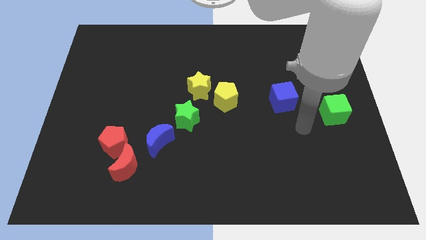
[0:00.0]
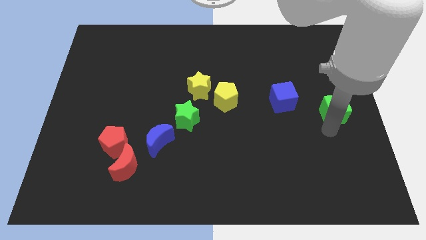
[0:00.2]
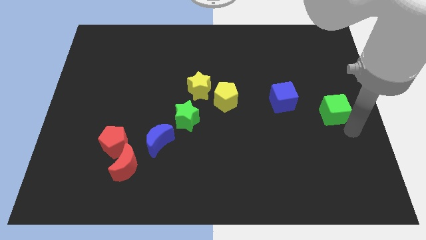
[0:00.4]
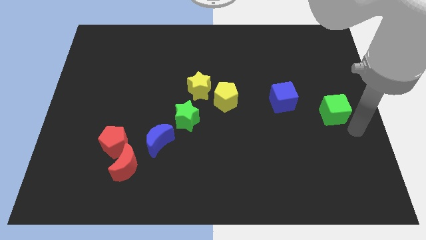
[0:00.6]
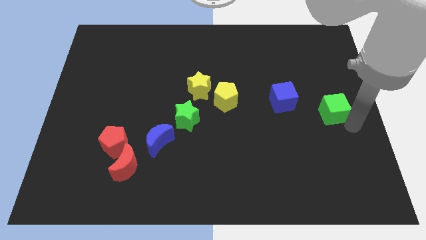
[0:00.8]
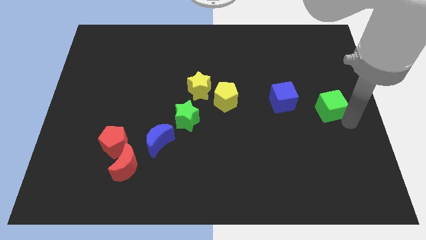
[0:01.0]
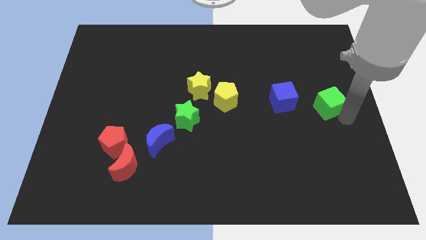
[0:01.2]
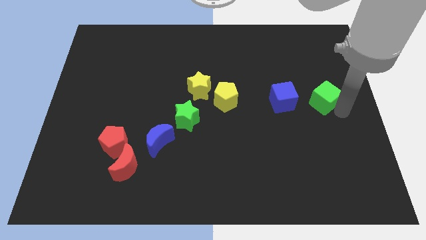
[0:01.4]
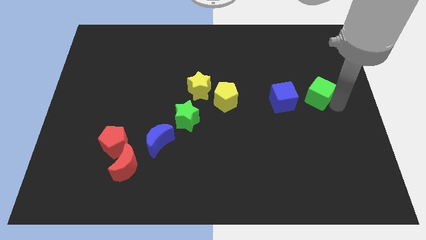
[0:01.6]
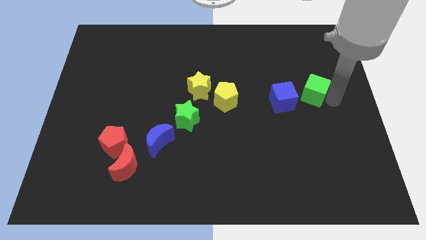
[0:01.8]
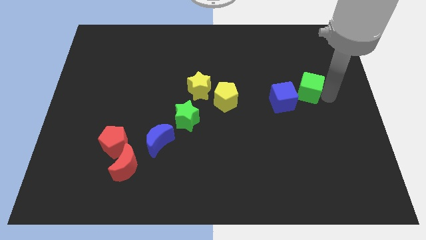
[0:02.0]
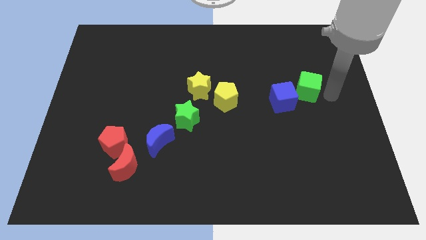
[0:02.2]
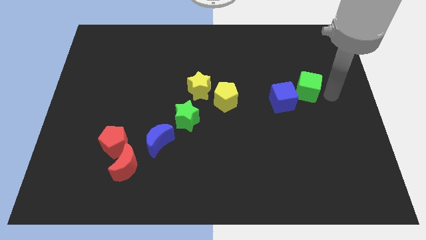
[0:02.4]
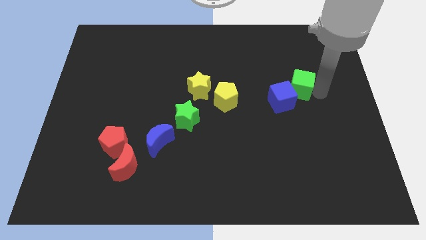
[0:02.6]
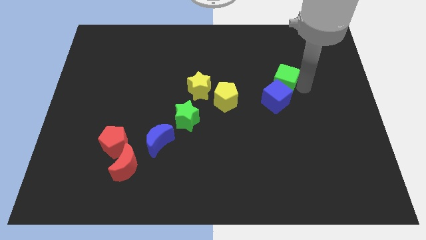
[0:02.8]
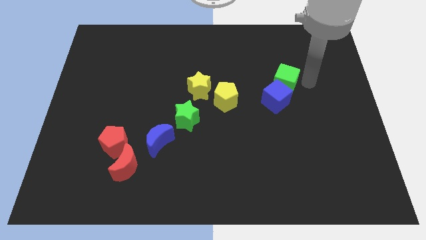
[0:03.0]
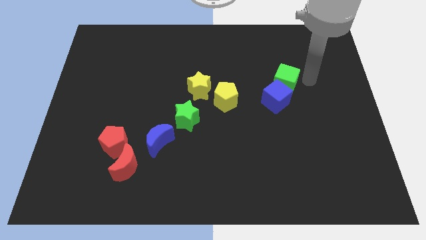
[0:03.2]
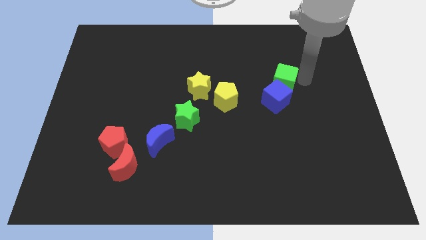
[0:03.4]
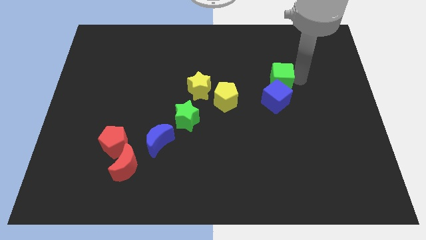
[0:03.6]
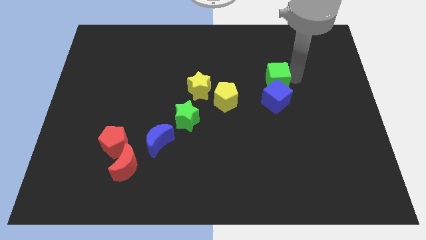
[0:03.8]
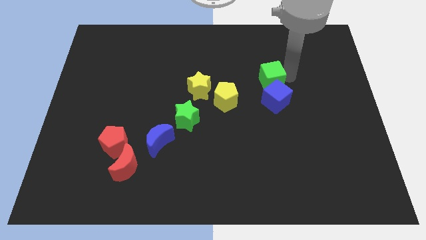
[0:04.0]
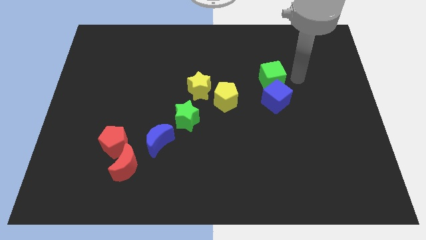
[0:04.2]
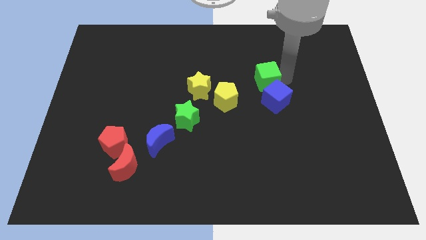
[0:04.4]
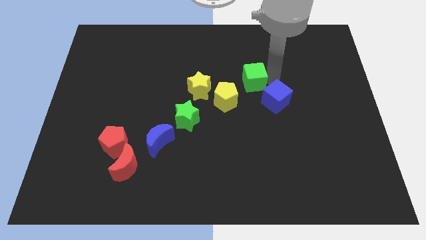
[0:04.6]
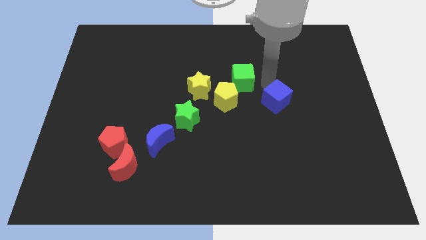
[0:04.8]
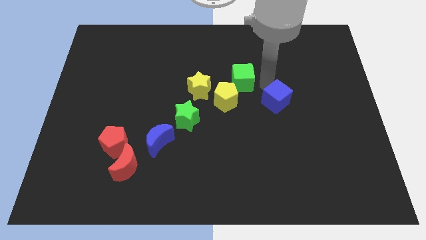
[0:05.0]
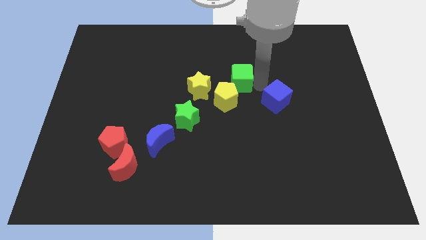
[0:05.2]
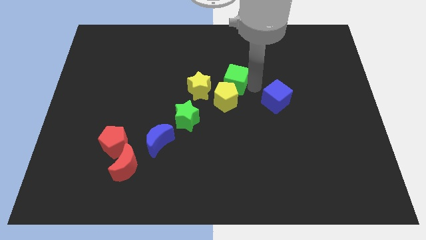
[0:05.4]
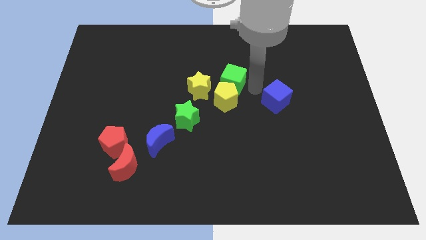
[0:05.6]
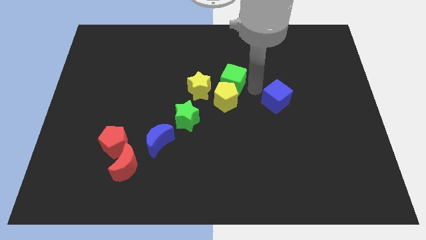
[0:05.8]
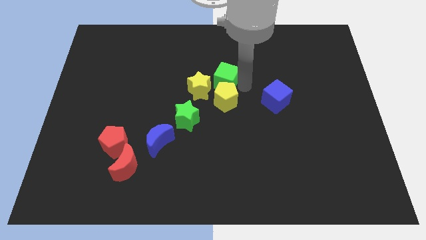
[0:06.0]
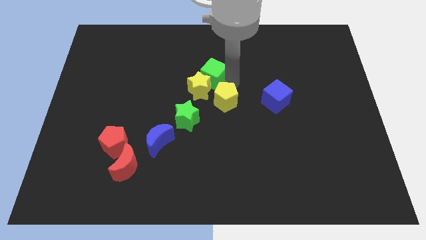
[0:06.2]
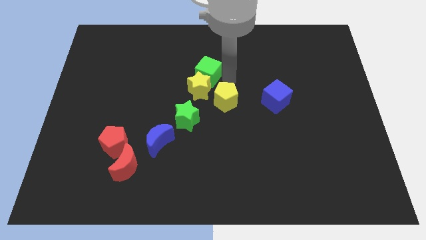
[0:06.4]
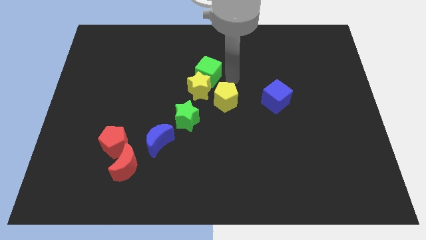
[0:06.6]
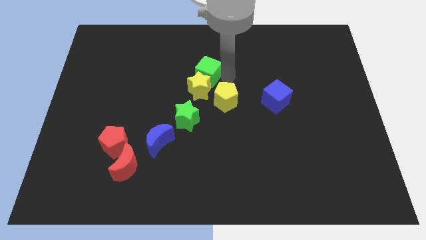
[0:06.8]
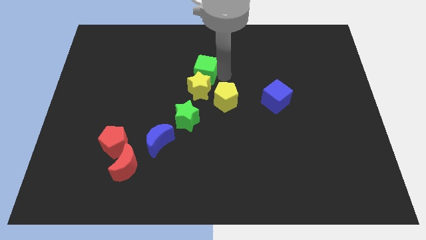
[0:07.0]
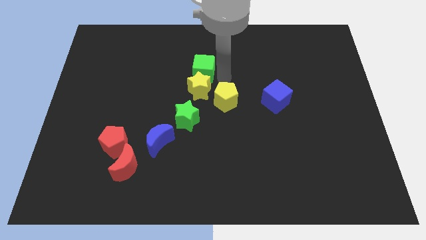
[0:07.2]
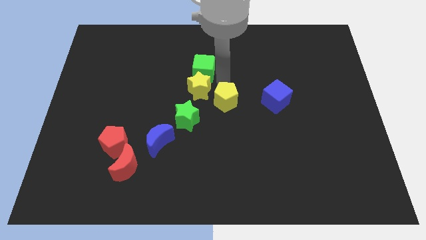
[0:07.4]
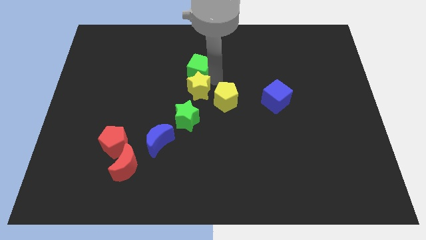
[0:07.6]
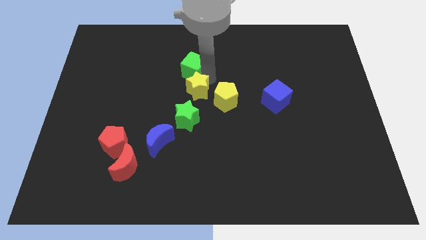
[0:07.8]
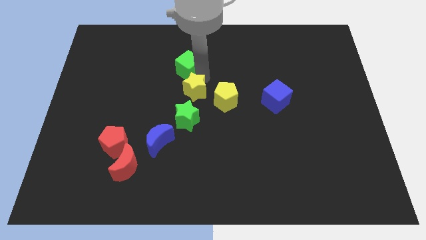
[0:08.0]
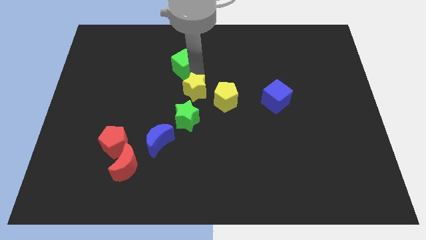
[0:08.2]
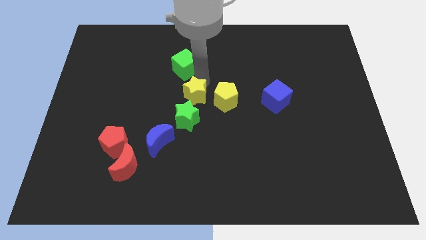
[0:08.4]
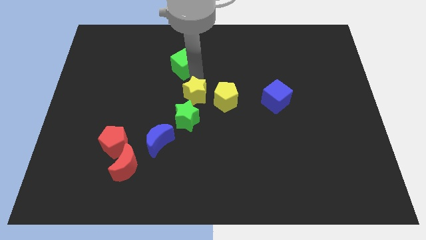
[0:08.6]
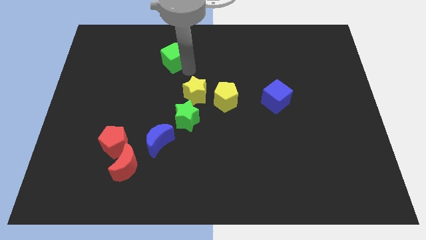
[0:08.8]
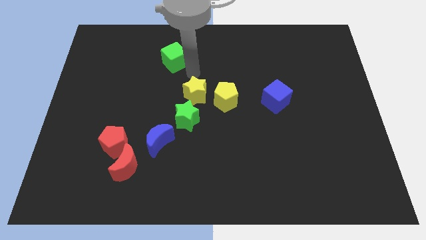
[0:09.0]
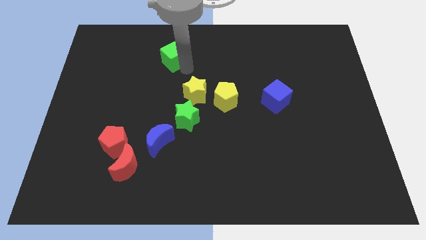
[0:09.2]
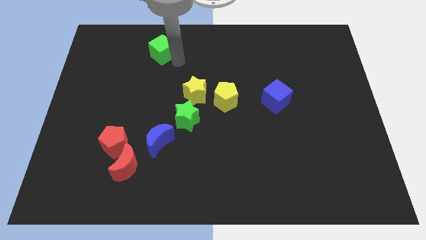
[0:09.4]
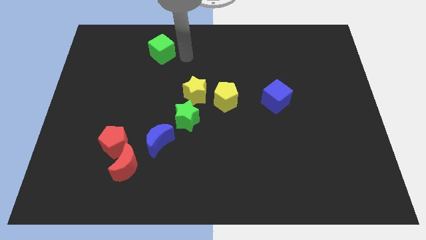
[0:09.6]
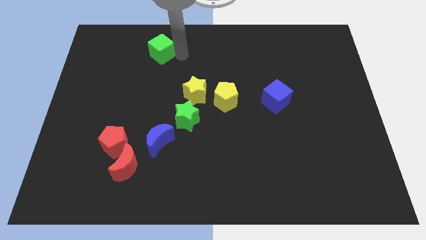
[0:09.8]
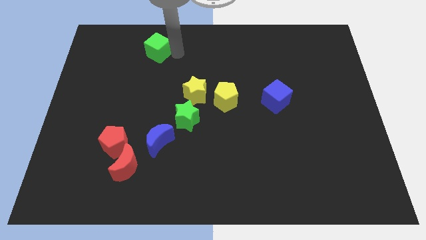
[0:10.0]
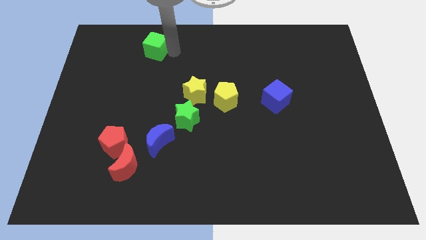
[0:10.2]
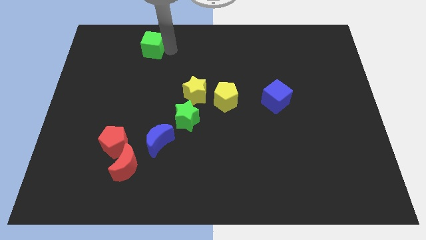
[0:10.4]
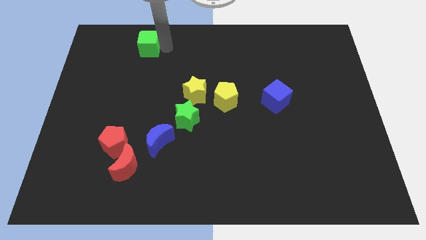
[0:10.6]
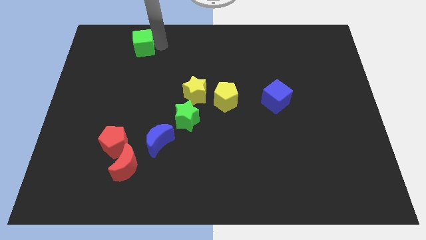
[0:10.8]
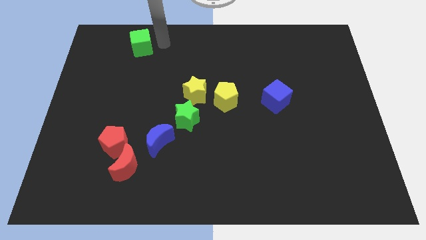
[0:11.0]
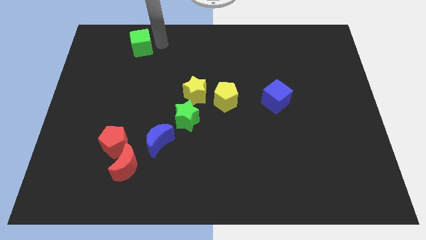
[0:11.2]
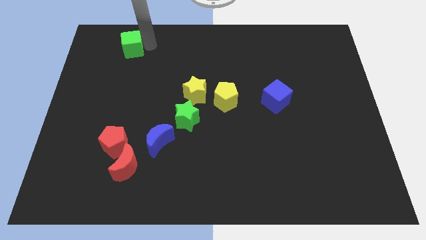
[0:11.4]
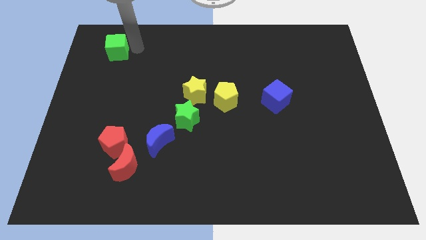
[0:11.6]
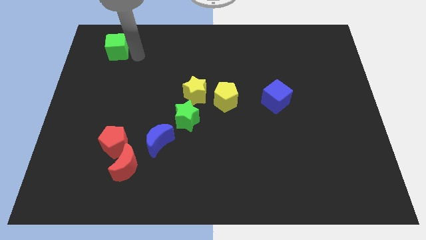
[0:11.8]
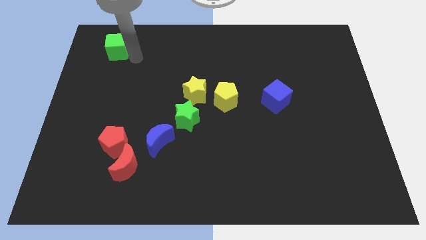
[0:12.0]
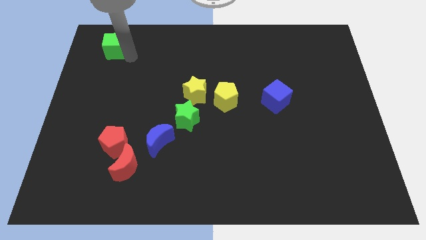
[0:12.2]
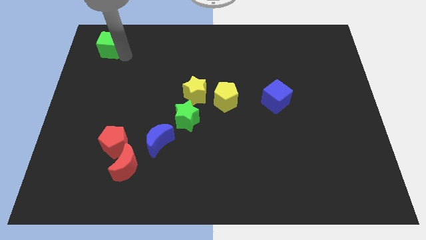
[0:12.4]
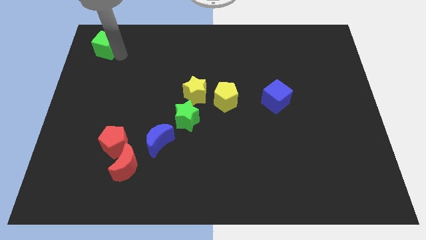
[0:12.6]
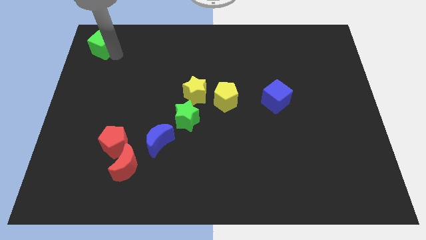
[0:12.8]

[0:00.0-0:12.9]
push the green cube to the top left

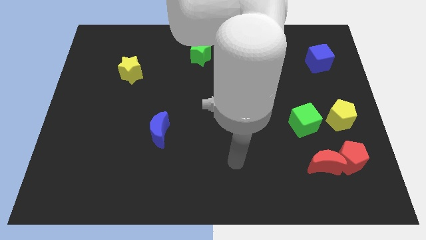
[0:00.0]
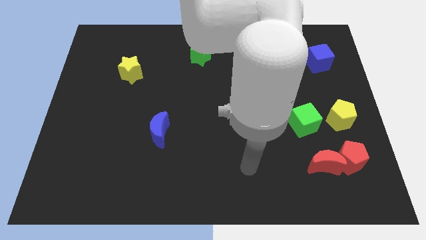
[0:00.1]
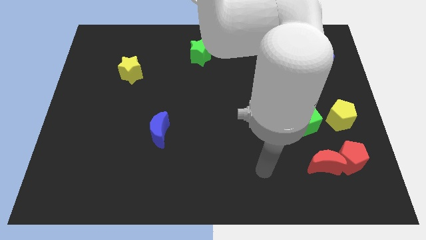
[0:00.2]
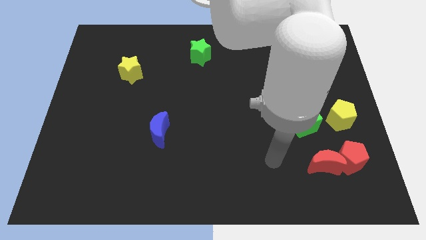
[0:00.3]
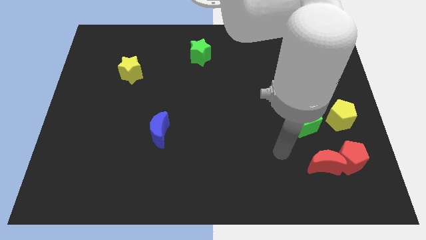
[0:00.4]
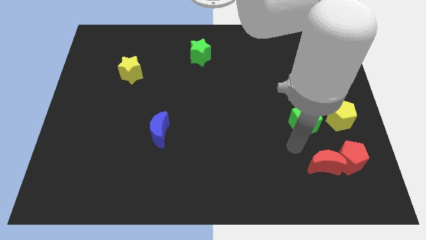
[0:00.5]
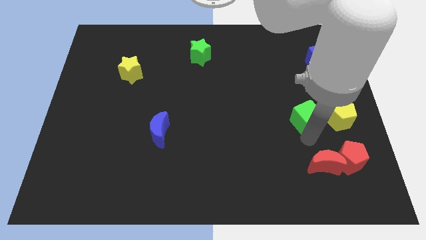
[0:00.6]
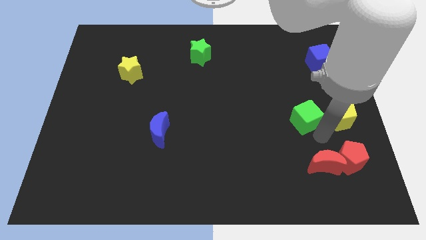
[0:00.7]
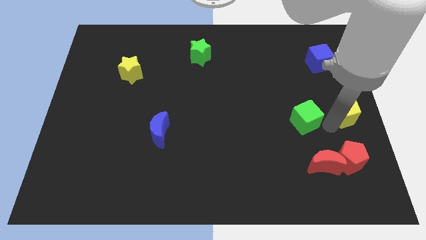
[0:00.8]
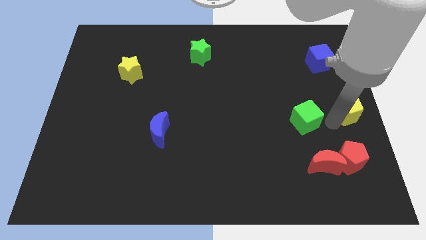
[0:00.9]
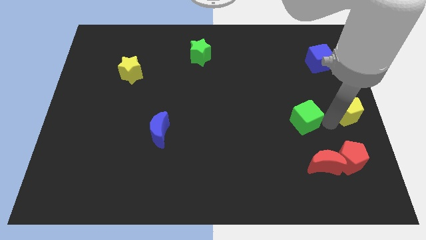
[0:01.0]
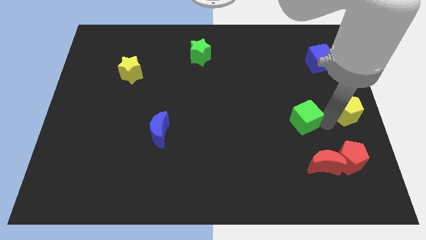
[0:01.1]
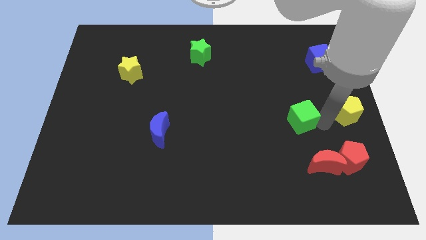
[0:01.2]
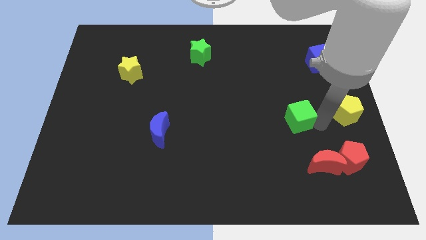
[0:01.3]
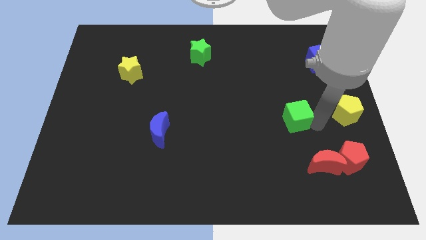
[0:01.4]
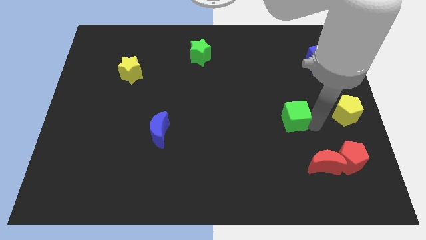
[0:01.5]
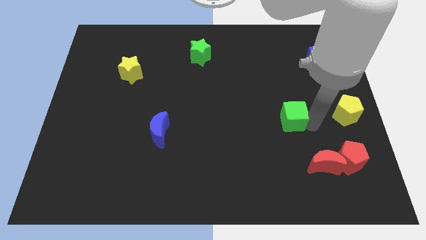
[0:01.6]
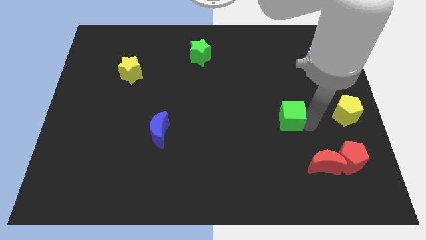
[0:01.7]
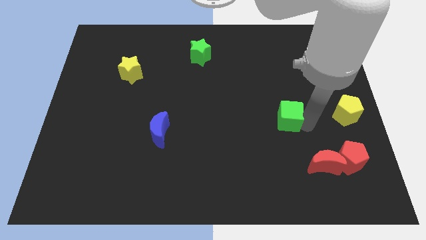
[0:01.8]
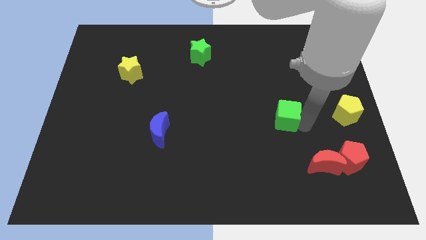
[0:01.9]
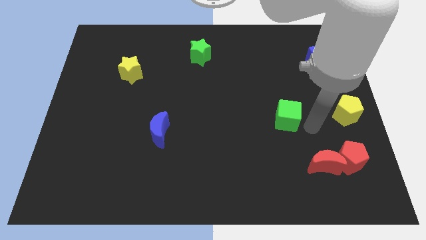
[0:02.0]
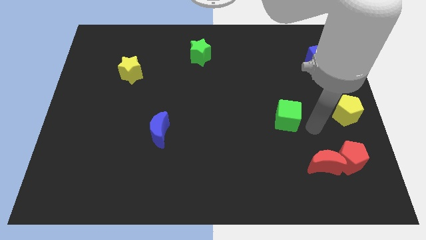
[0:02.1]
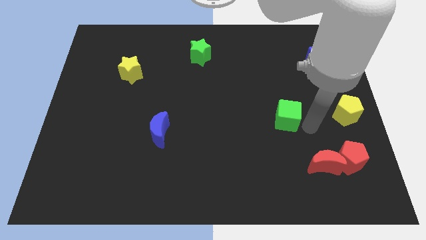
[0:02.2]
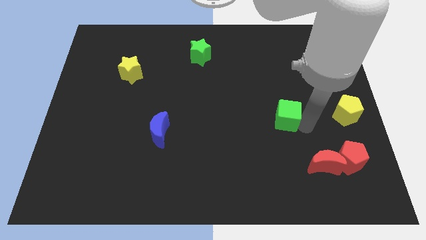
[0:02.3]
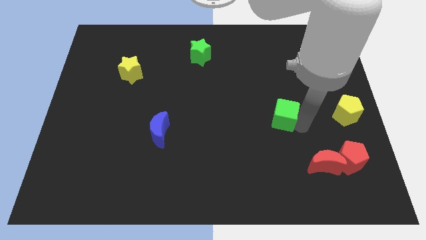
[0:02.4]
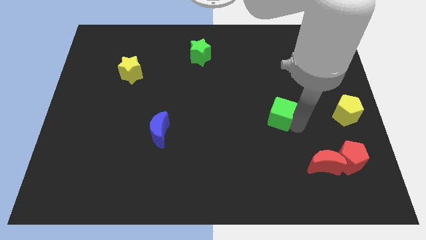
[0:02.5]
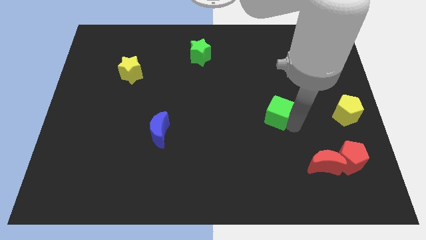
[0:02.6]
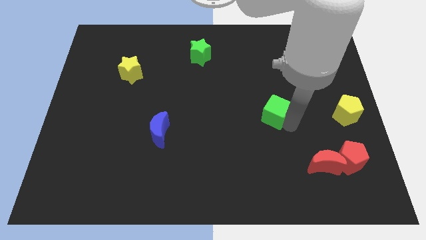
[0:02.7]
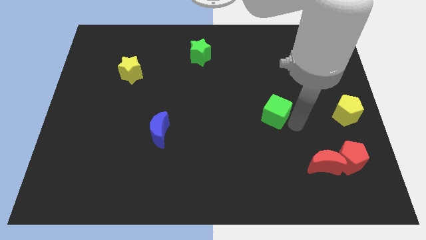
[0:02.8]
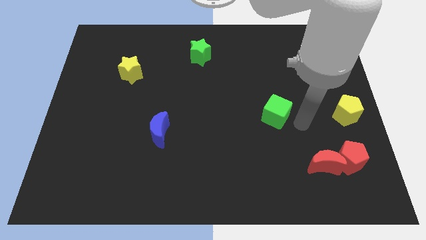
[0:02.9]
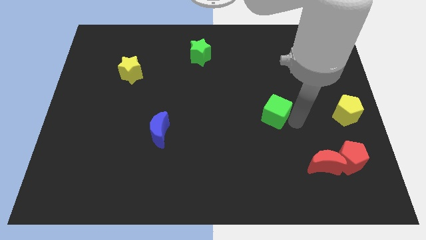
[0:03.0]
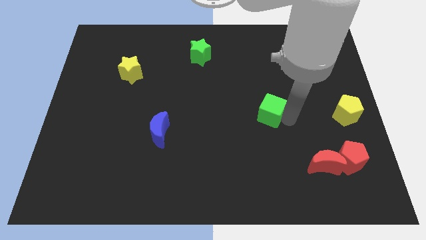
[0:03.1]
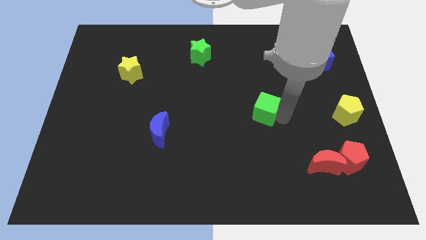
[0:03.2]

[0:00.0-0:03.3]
move the green cube to the middle
